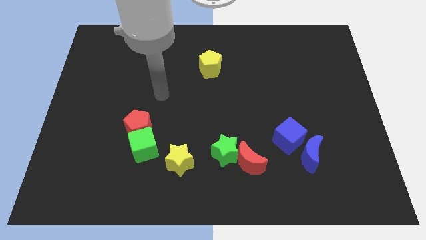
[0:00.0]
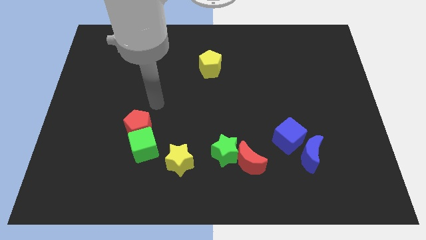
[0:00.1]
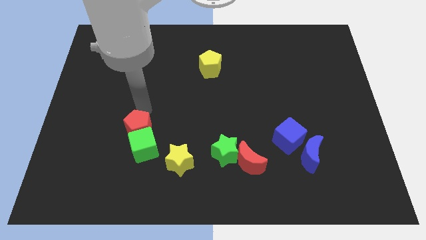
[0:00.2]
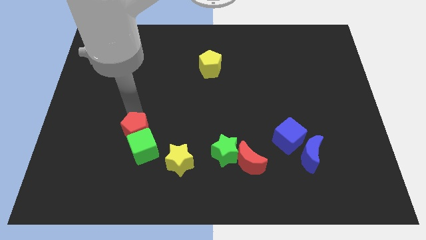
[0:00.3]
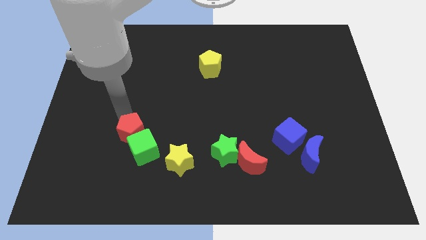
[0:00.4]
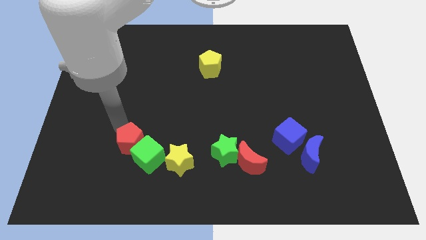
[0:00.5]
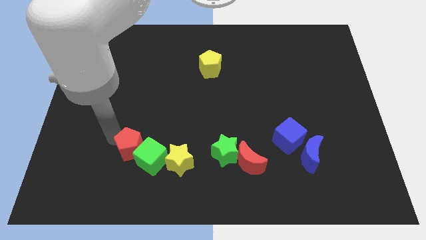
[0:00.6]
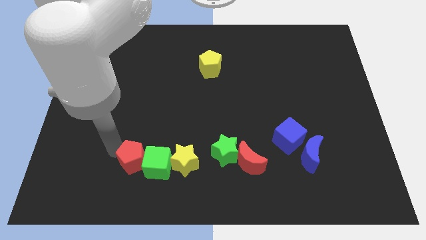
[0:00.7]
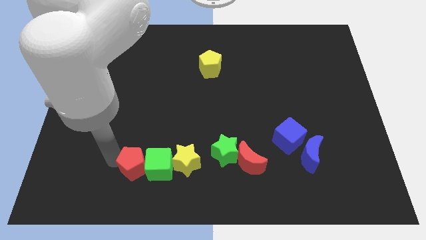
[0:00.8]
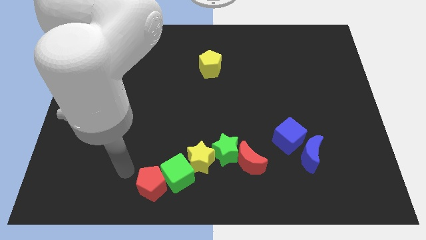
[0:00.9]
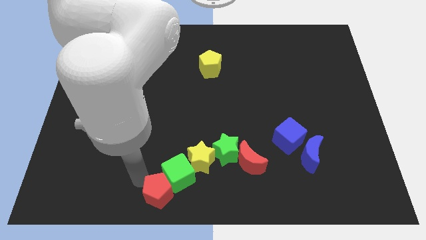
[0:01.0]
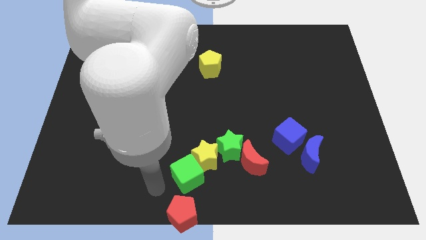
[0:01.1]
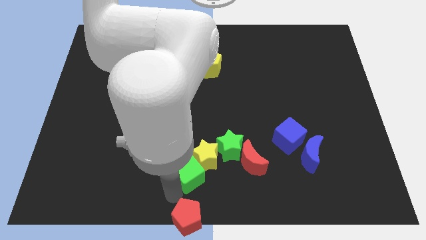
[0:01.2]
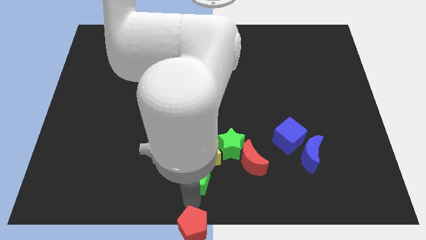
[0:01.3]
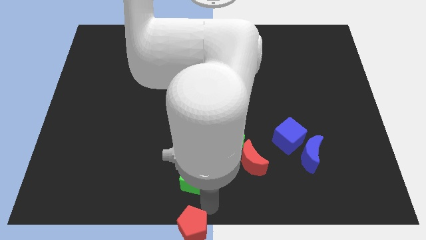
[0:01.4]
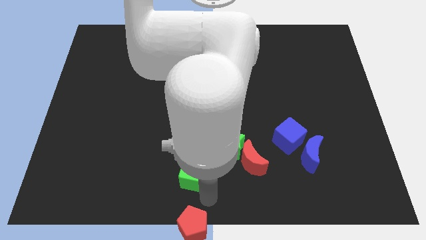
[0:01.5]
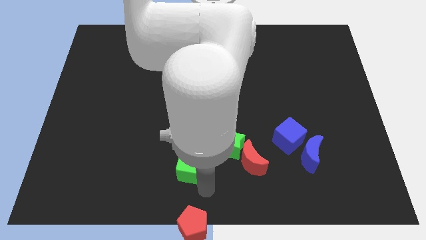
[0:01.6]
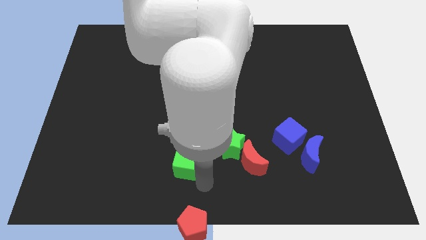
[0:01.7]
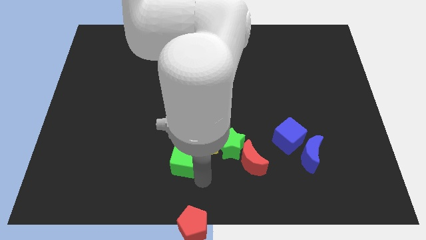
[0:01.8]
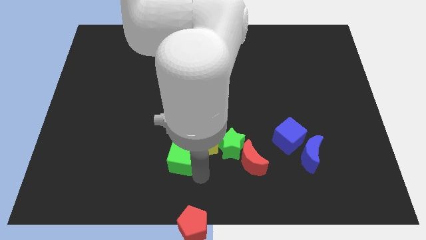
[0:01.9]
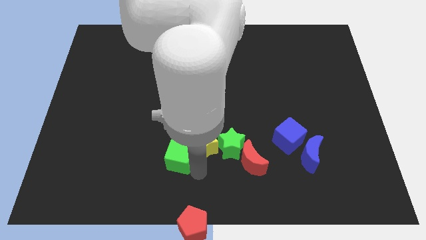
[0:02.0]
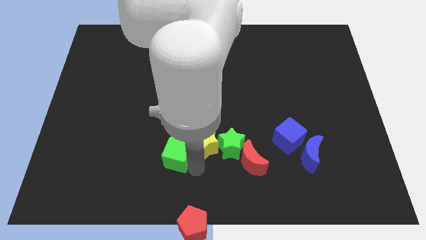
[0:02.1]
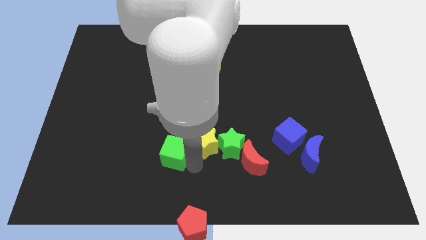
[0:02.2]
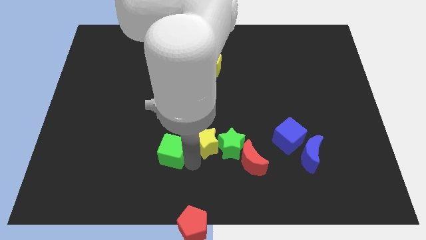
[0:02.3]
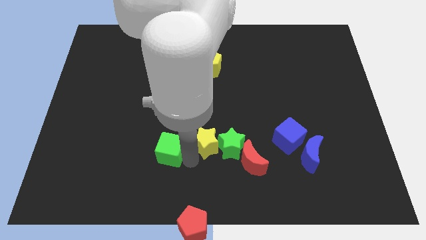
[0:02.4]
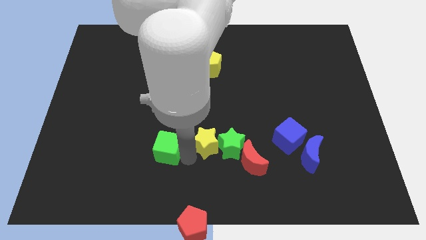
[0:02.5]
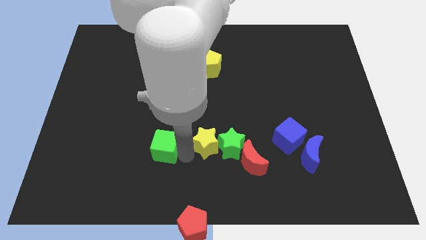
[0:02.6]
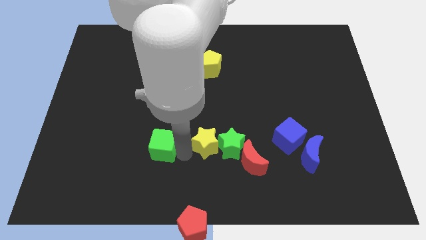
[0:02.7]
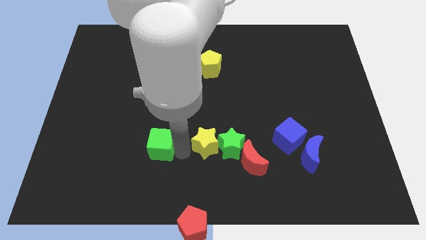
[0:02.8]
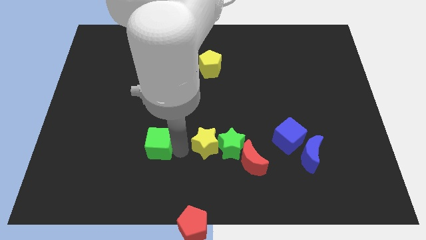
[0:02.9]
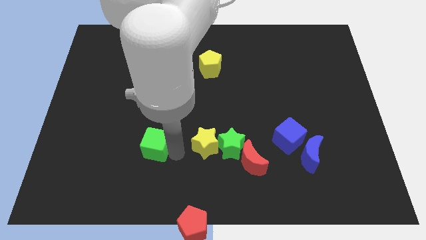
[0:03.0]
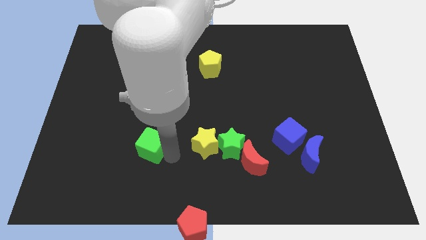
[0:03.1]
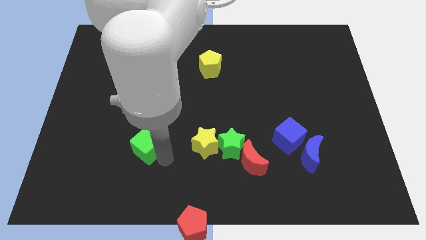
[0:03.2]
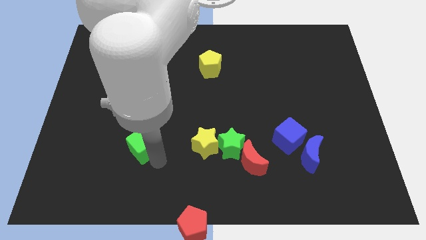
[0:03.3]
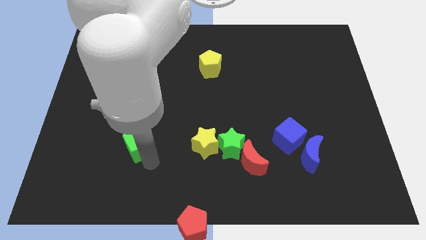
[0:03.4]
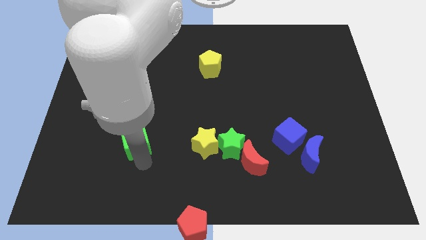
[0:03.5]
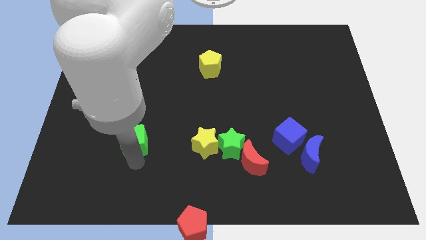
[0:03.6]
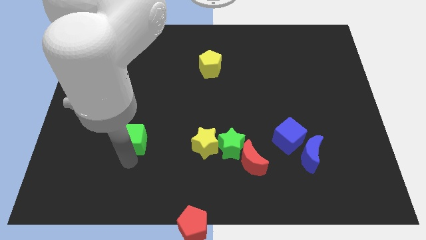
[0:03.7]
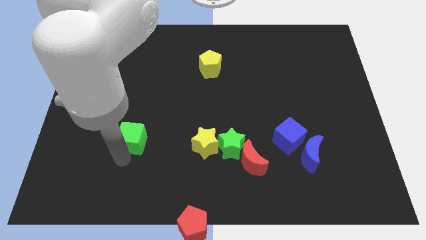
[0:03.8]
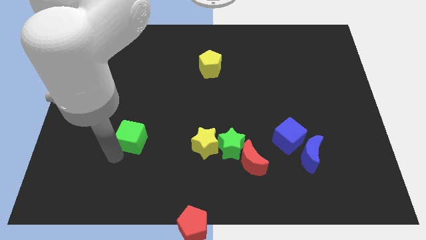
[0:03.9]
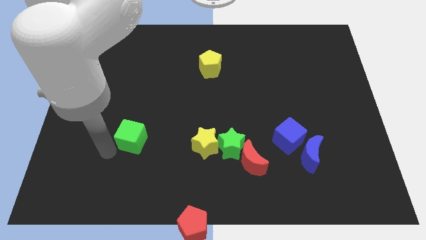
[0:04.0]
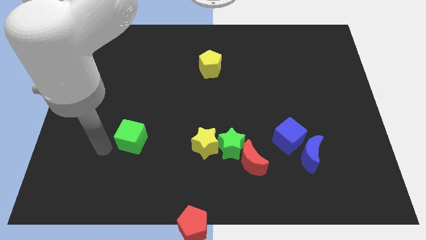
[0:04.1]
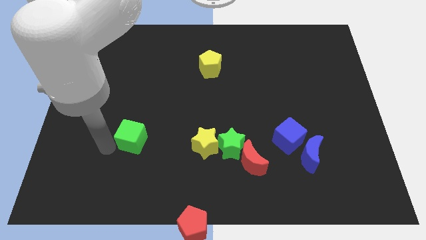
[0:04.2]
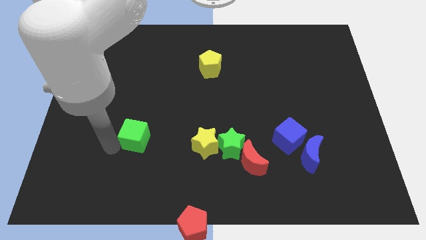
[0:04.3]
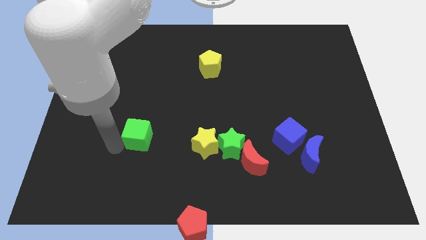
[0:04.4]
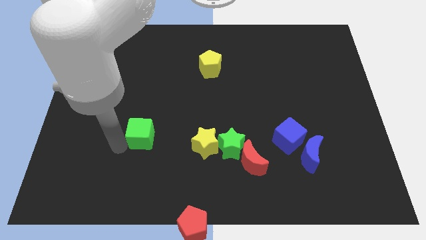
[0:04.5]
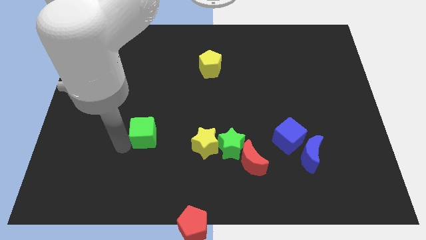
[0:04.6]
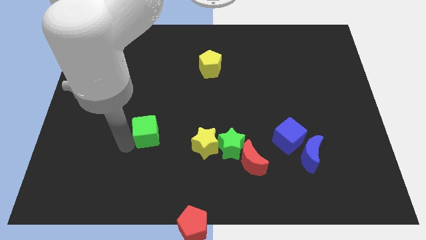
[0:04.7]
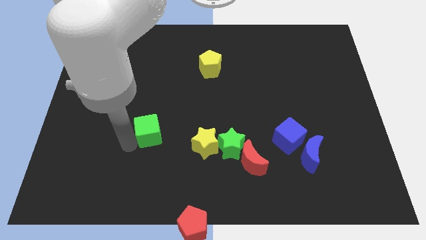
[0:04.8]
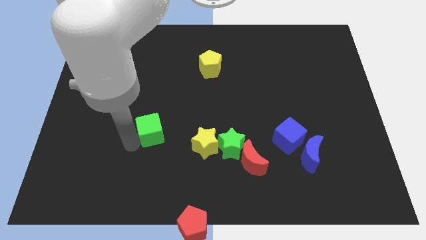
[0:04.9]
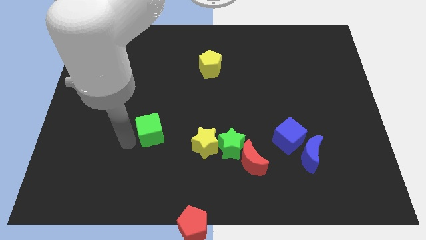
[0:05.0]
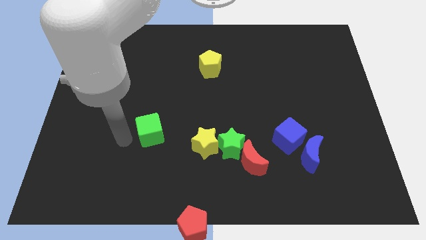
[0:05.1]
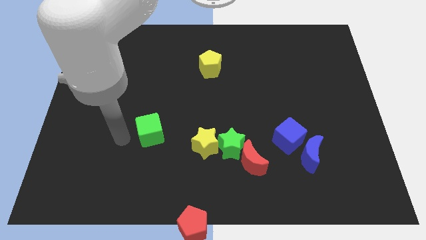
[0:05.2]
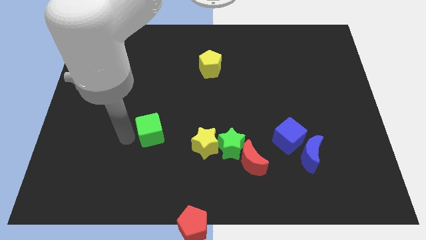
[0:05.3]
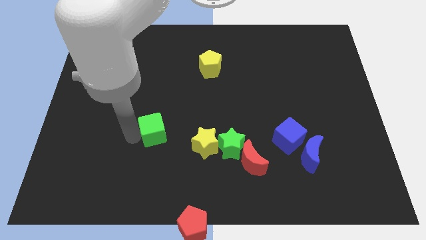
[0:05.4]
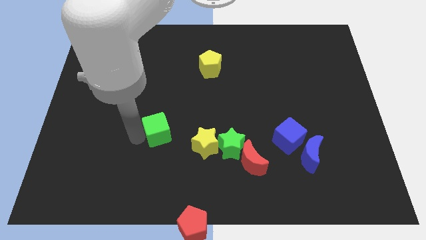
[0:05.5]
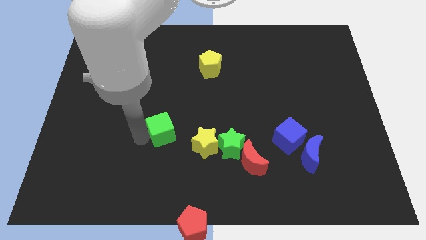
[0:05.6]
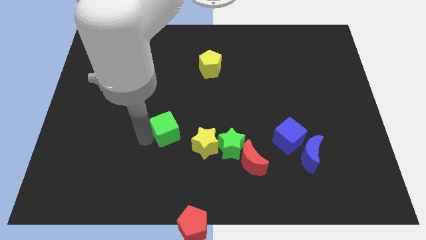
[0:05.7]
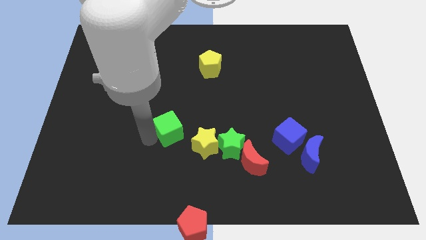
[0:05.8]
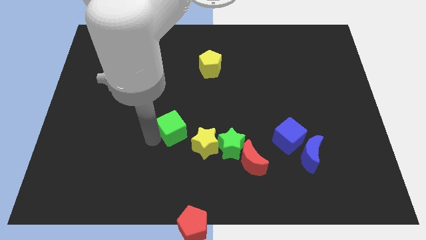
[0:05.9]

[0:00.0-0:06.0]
push the green cube up and right a little bit

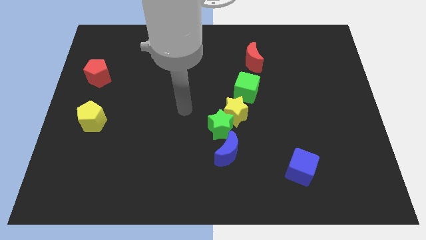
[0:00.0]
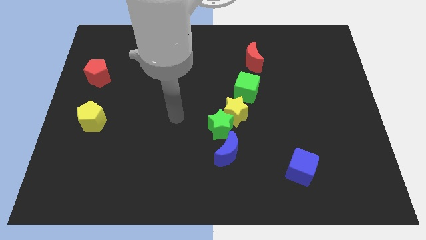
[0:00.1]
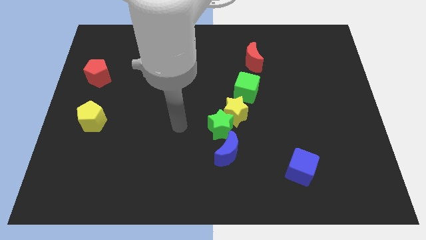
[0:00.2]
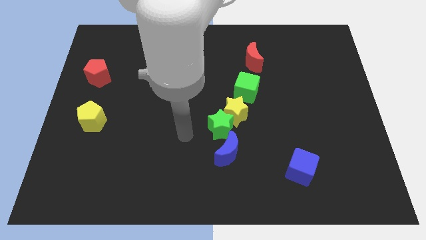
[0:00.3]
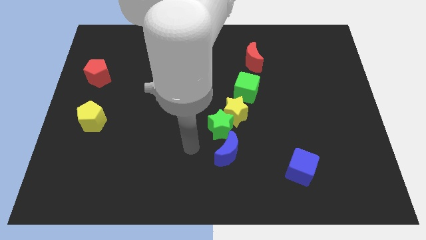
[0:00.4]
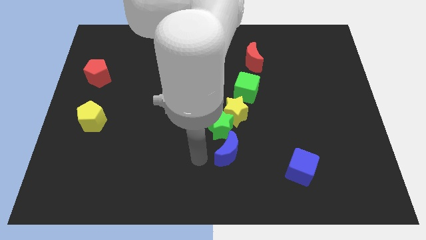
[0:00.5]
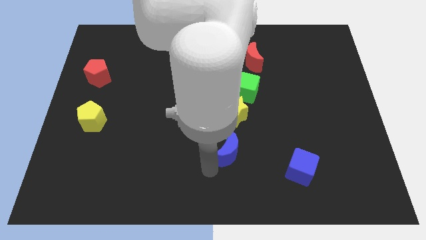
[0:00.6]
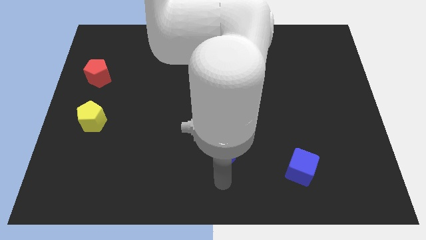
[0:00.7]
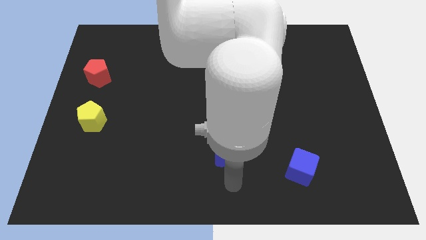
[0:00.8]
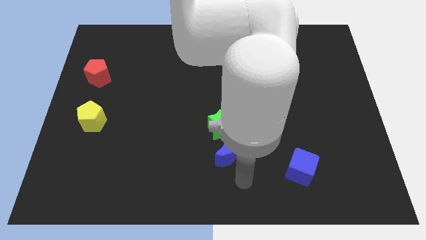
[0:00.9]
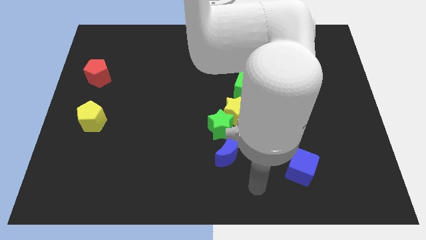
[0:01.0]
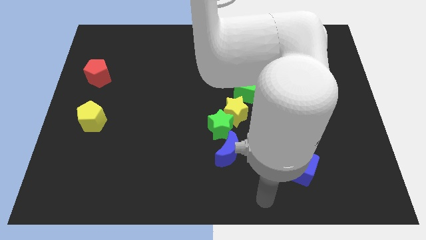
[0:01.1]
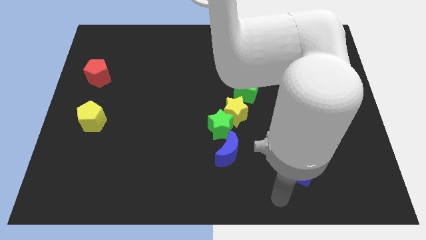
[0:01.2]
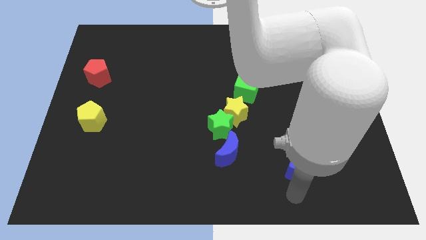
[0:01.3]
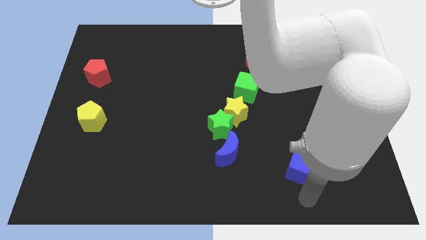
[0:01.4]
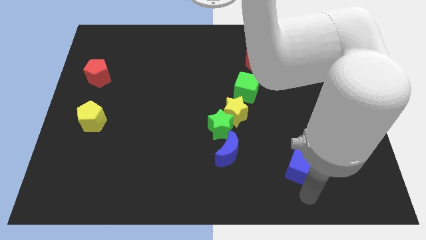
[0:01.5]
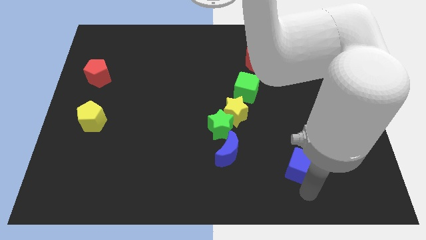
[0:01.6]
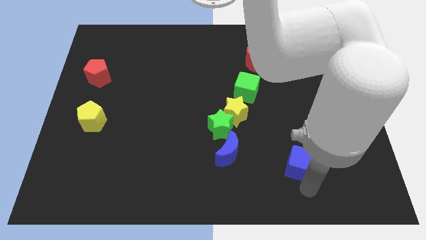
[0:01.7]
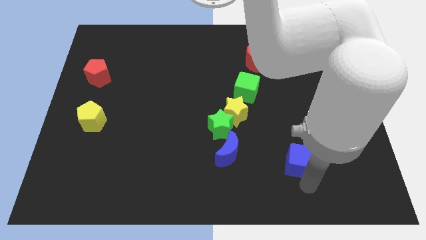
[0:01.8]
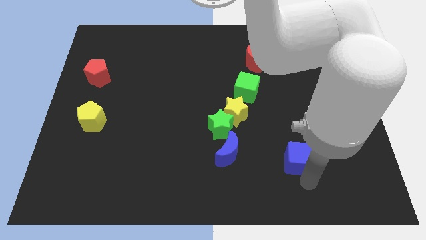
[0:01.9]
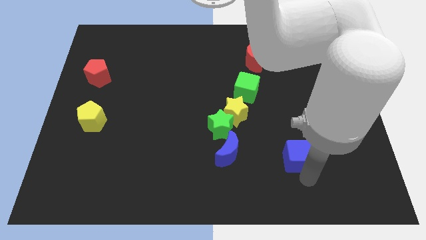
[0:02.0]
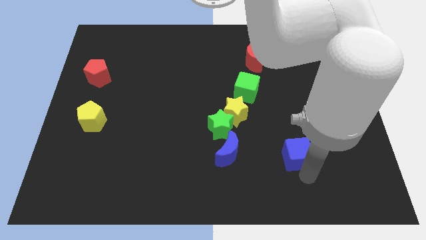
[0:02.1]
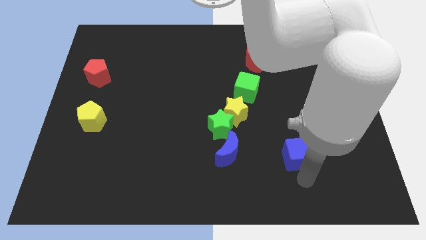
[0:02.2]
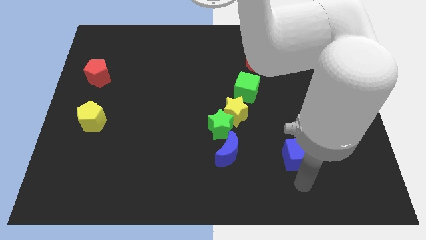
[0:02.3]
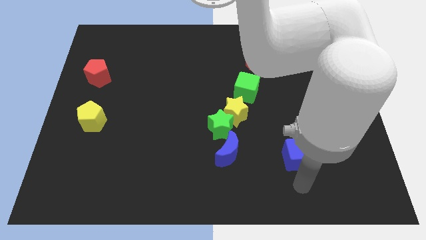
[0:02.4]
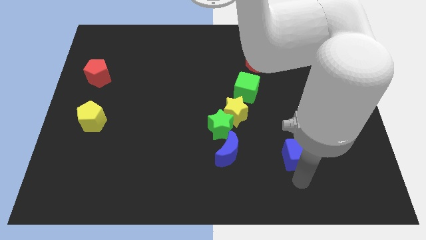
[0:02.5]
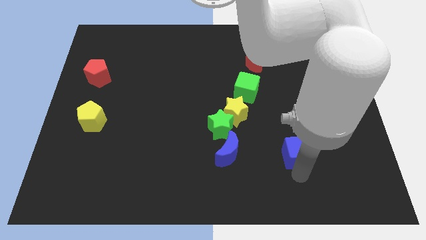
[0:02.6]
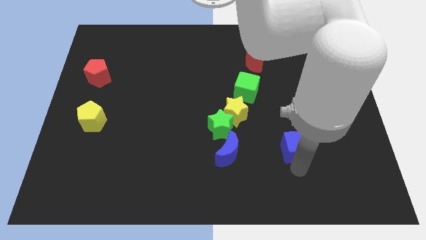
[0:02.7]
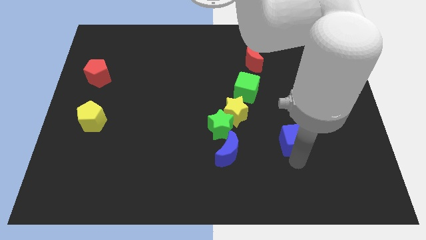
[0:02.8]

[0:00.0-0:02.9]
slightly slide the blue cube upwards
